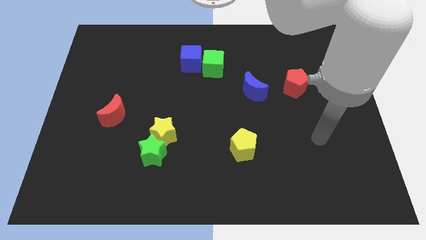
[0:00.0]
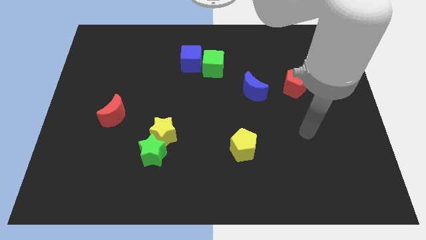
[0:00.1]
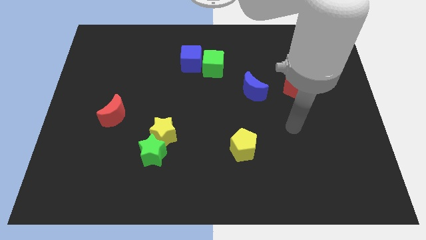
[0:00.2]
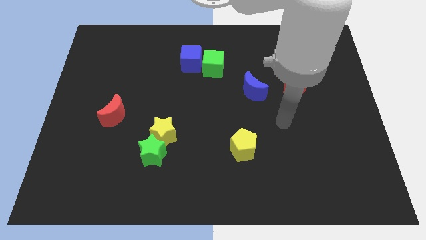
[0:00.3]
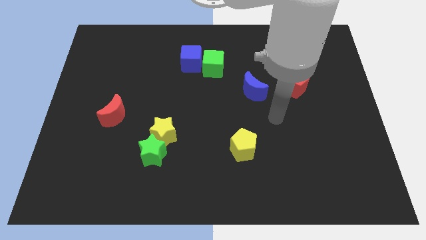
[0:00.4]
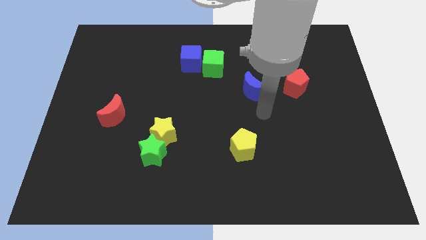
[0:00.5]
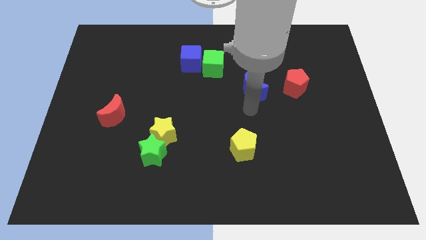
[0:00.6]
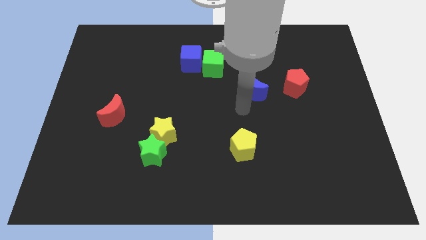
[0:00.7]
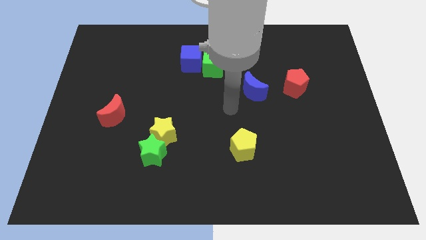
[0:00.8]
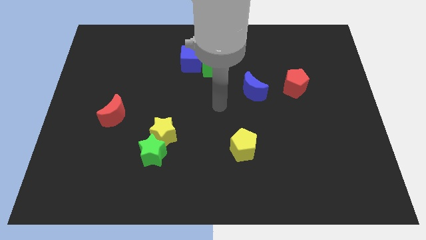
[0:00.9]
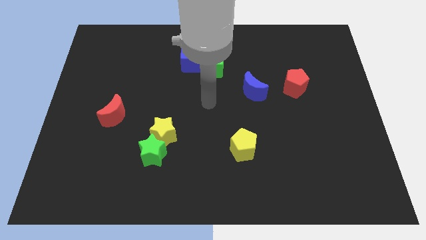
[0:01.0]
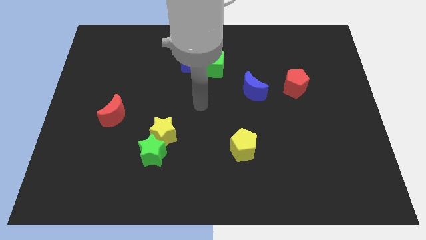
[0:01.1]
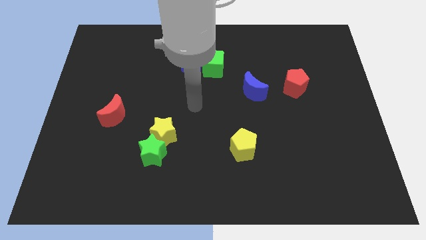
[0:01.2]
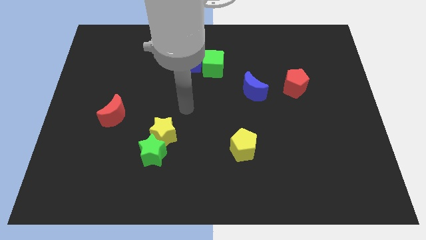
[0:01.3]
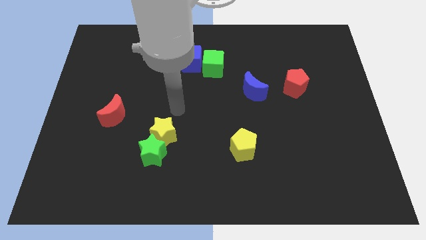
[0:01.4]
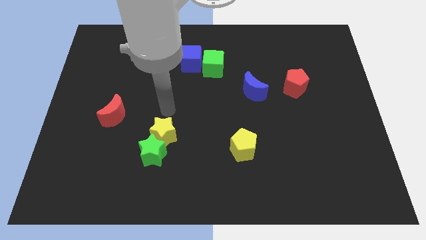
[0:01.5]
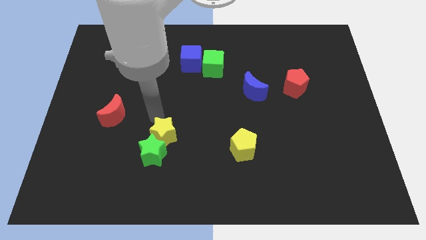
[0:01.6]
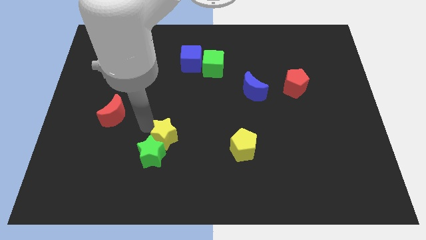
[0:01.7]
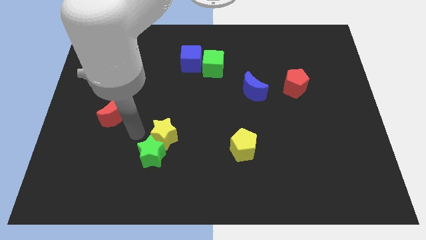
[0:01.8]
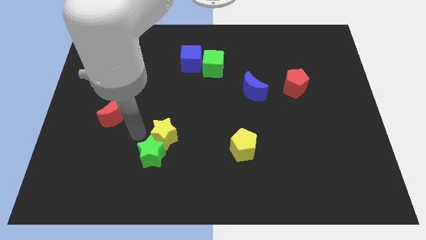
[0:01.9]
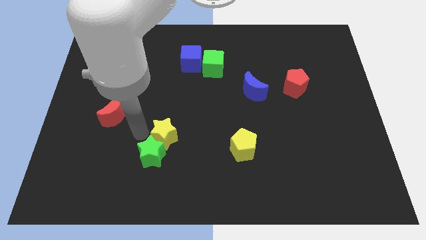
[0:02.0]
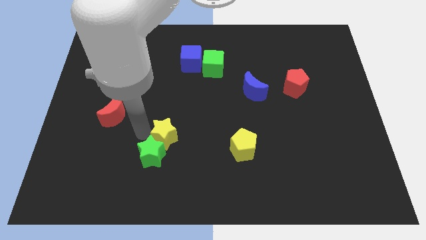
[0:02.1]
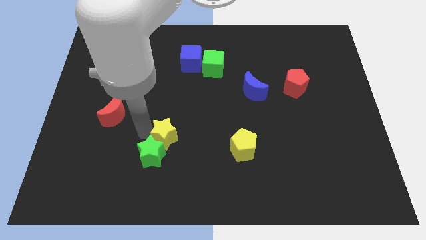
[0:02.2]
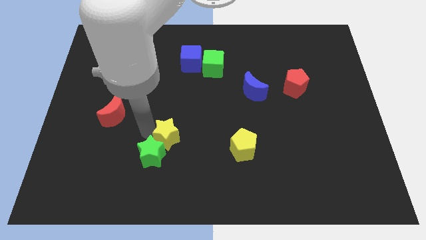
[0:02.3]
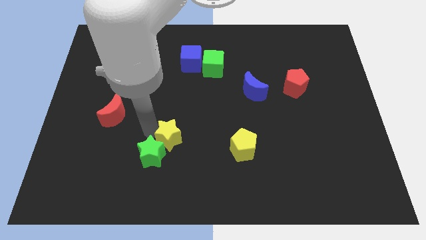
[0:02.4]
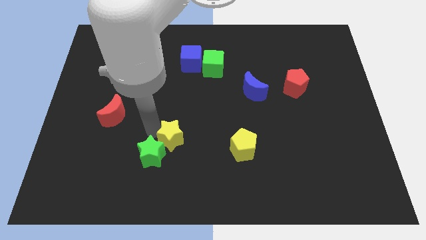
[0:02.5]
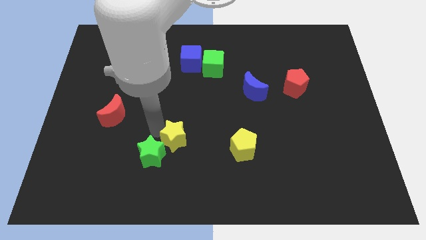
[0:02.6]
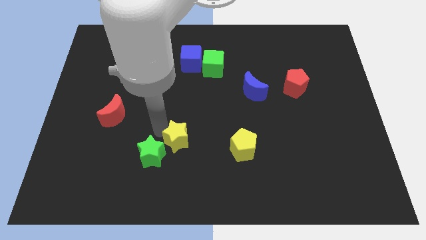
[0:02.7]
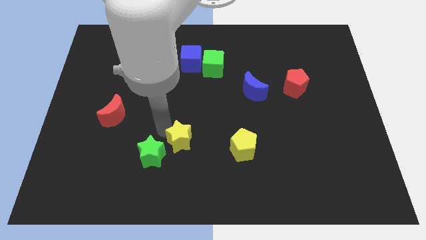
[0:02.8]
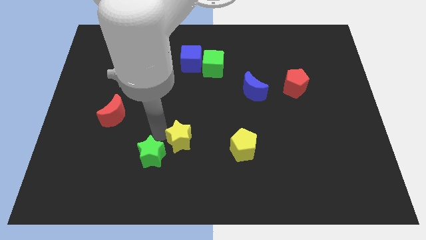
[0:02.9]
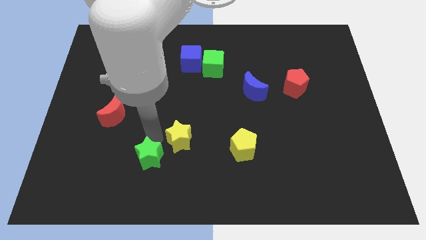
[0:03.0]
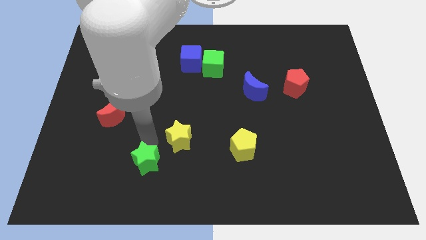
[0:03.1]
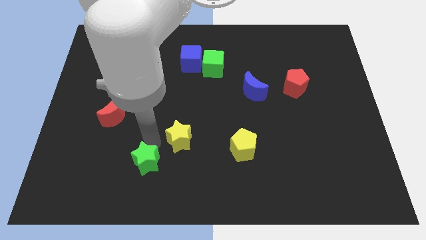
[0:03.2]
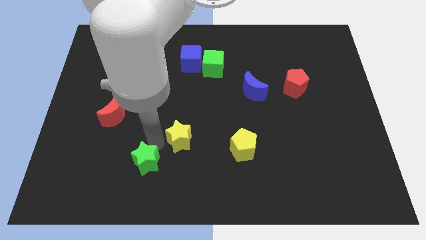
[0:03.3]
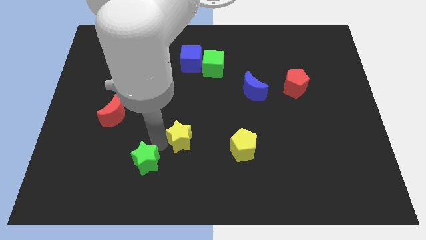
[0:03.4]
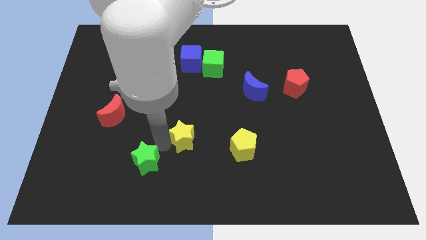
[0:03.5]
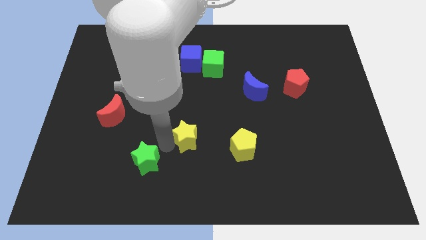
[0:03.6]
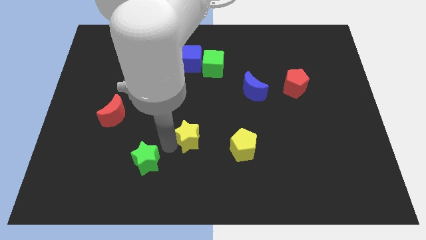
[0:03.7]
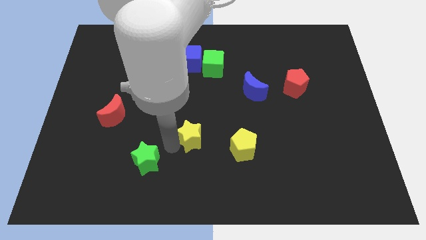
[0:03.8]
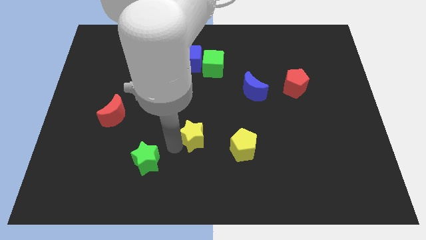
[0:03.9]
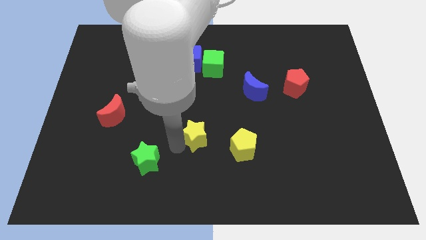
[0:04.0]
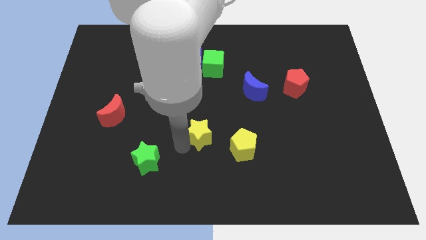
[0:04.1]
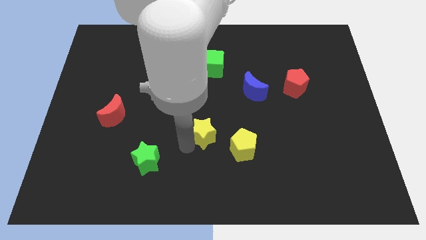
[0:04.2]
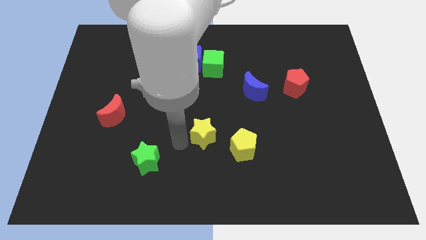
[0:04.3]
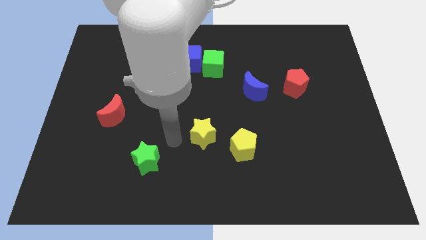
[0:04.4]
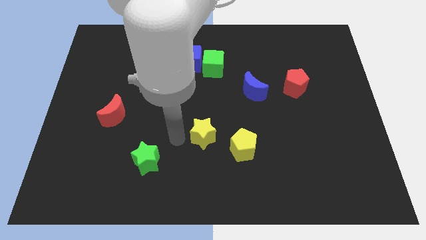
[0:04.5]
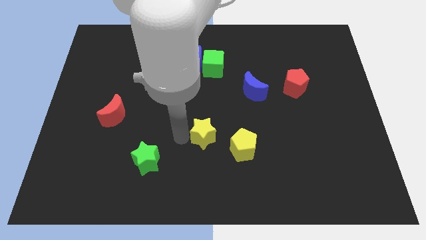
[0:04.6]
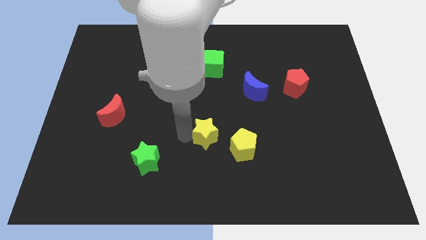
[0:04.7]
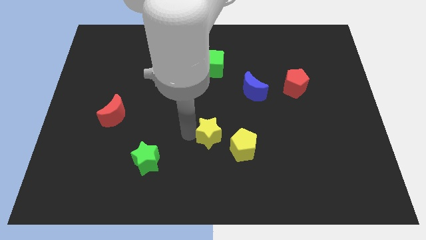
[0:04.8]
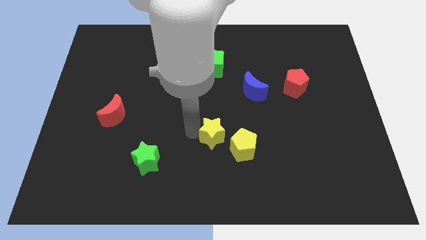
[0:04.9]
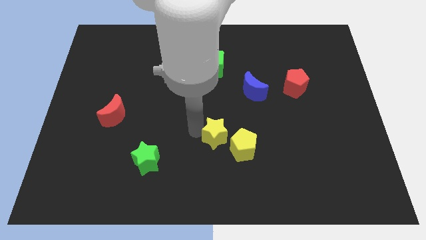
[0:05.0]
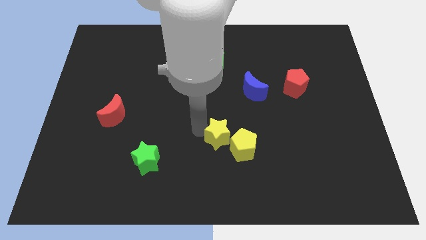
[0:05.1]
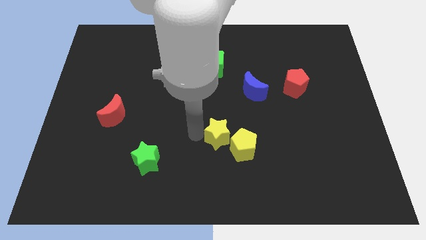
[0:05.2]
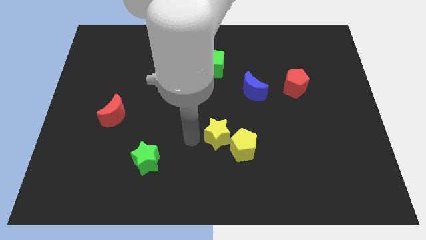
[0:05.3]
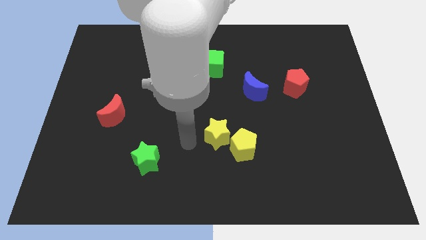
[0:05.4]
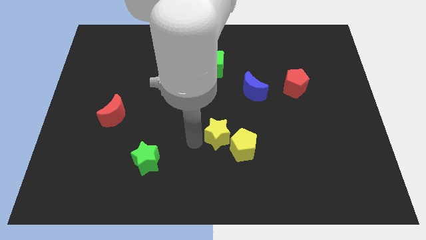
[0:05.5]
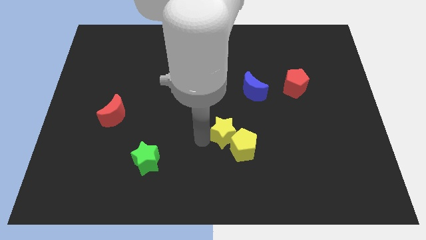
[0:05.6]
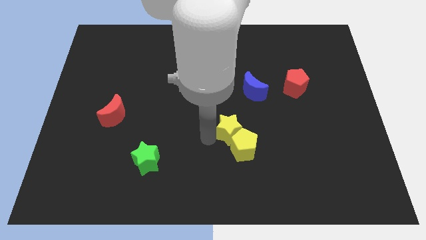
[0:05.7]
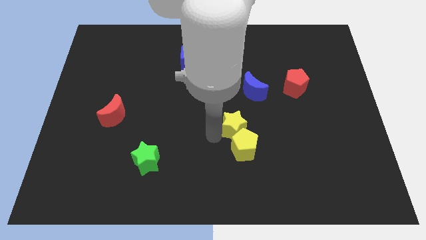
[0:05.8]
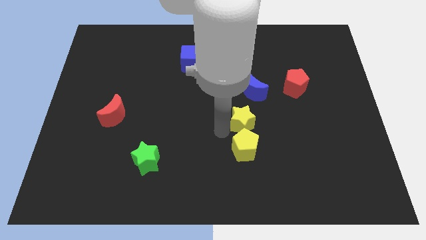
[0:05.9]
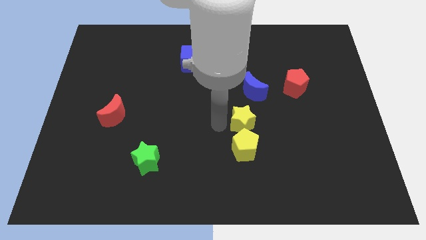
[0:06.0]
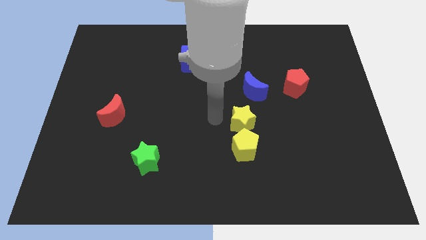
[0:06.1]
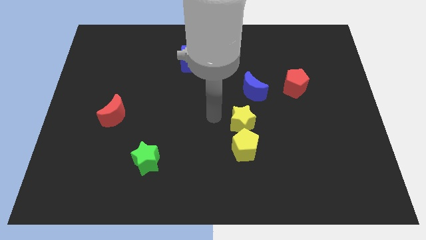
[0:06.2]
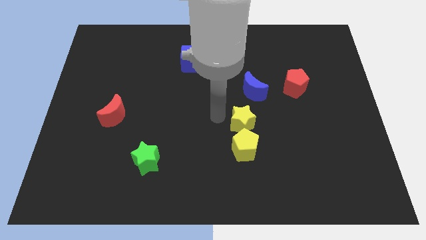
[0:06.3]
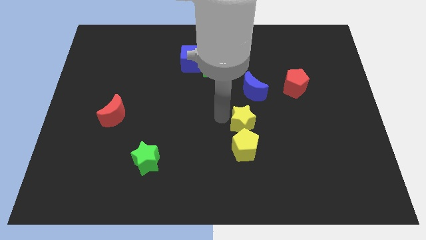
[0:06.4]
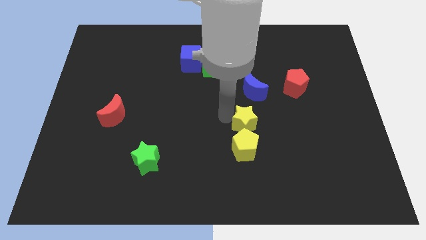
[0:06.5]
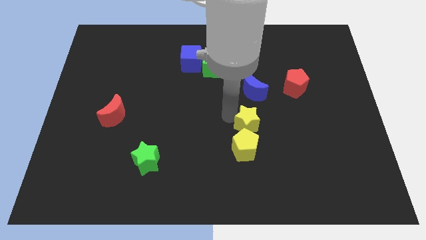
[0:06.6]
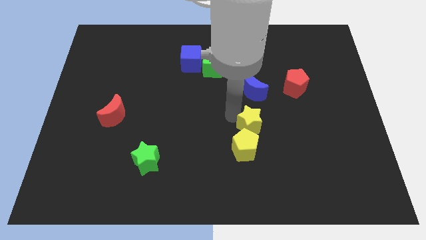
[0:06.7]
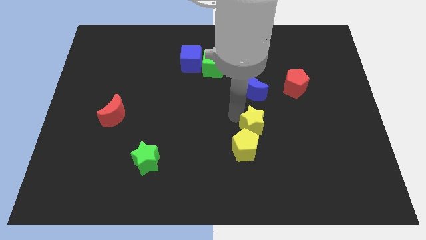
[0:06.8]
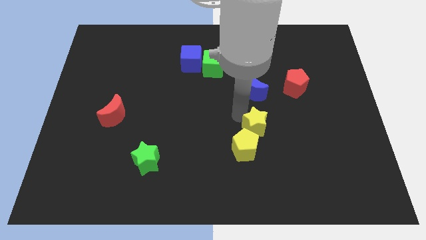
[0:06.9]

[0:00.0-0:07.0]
push the yellow star to the right

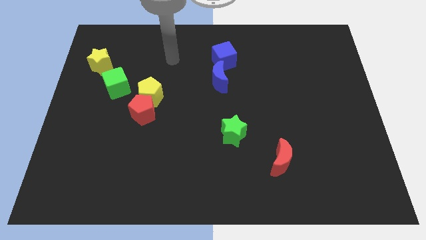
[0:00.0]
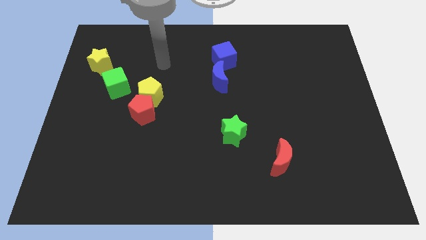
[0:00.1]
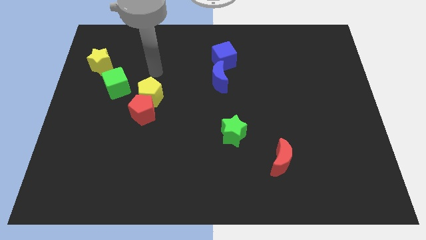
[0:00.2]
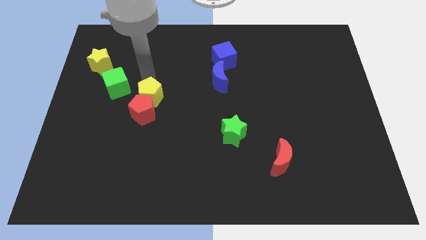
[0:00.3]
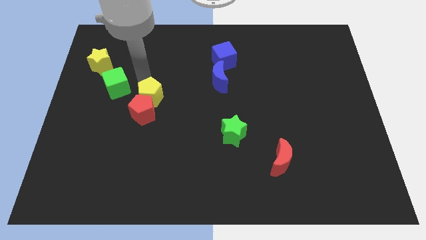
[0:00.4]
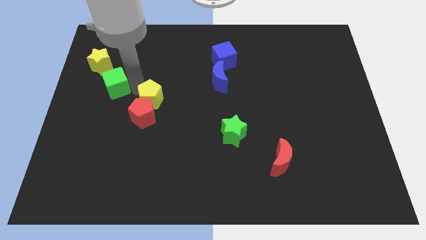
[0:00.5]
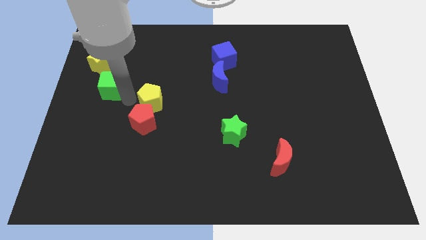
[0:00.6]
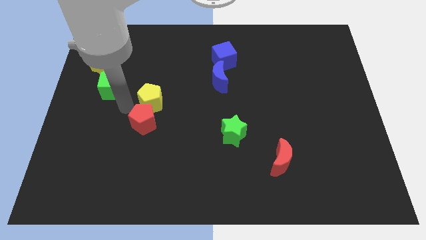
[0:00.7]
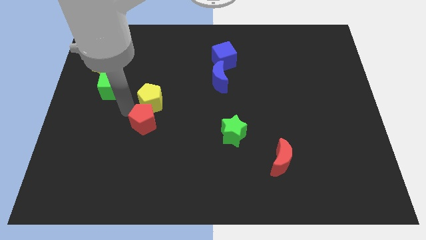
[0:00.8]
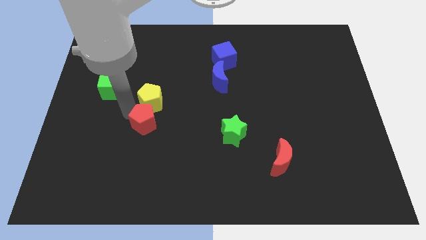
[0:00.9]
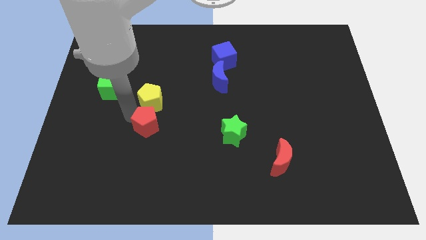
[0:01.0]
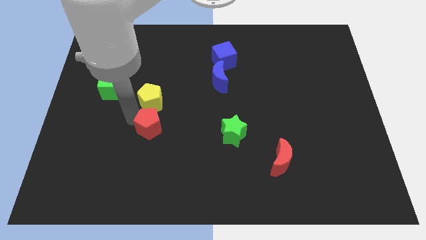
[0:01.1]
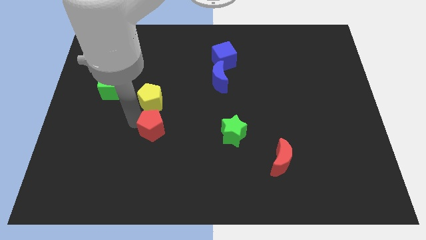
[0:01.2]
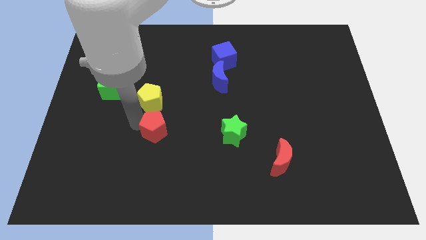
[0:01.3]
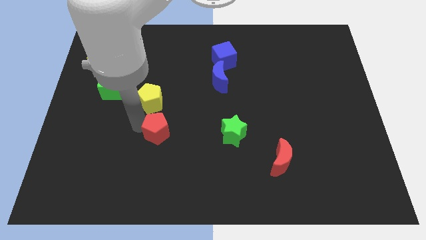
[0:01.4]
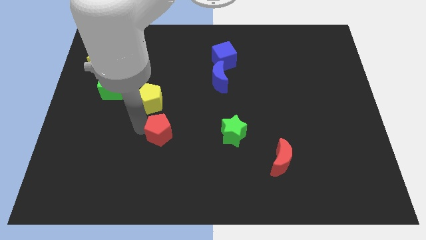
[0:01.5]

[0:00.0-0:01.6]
slide the red pentagon down and to the right diagonally a little bit
